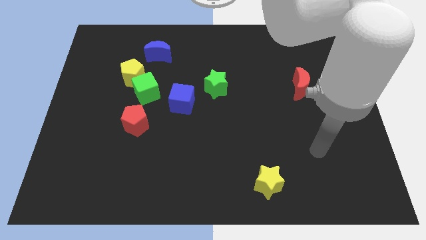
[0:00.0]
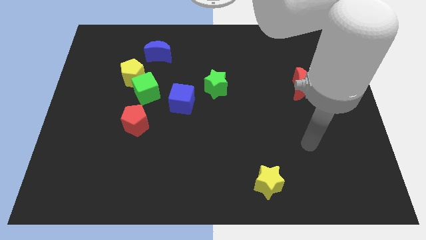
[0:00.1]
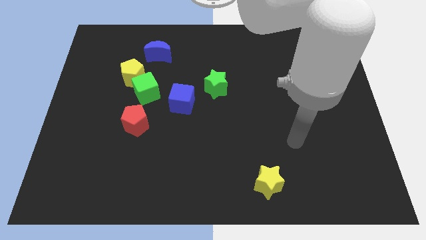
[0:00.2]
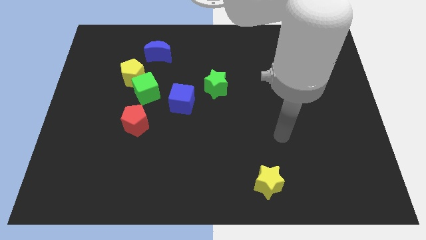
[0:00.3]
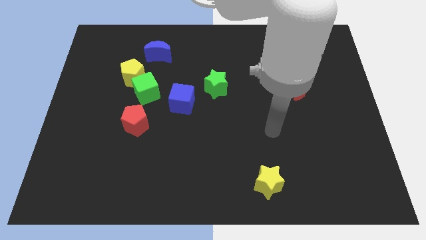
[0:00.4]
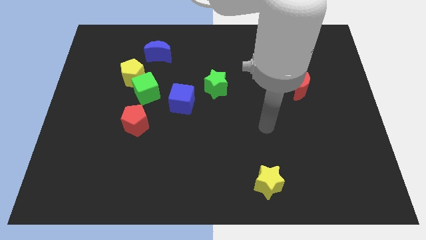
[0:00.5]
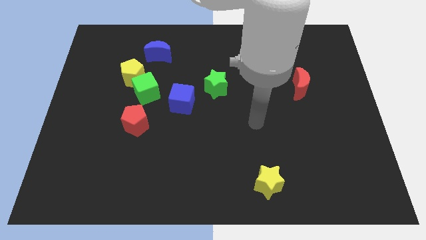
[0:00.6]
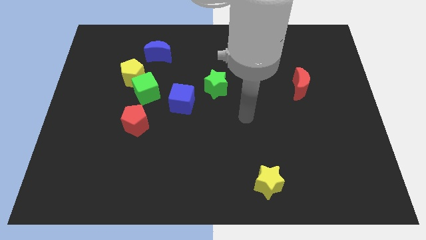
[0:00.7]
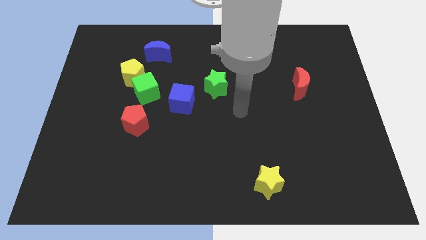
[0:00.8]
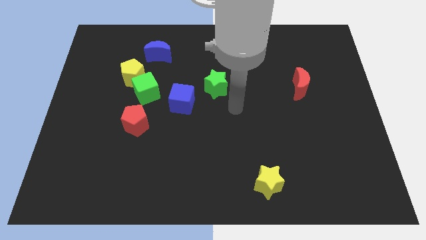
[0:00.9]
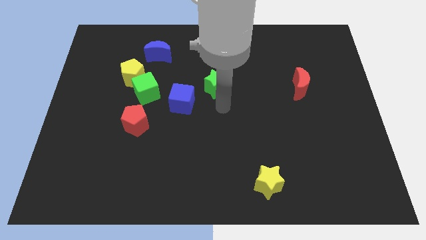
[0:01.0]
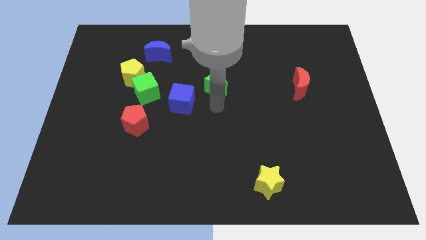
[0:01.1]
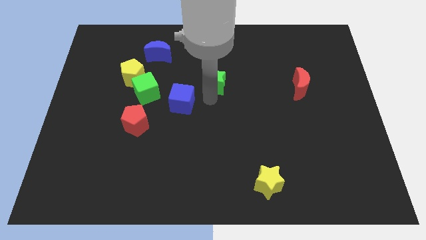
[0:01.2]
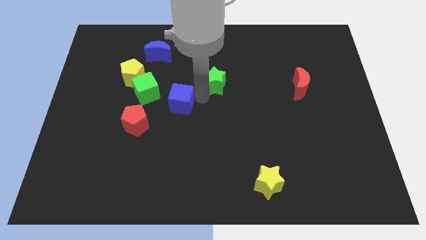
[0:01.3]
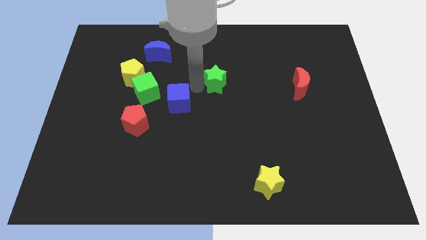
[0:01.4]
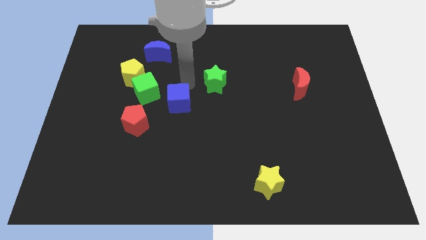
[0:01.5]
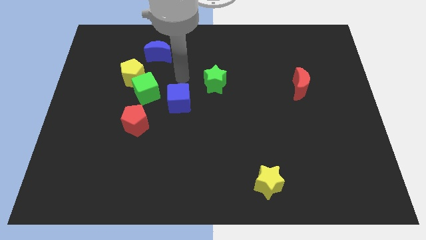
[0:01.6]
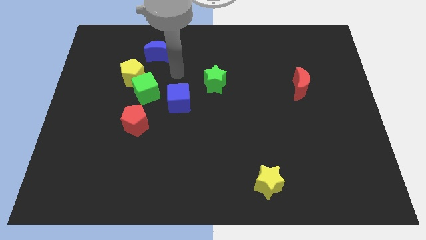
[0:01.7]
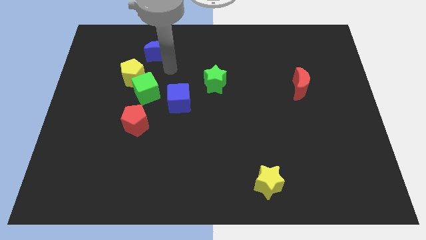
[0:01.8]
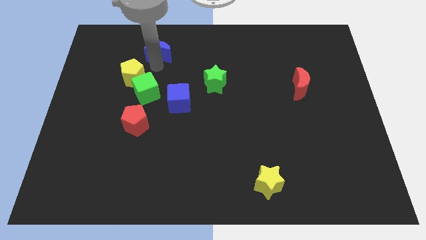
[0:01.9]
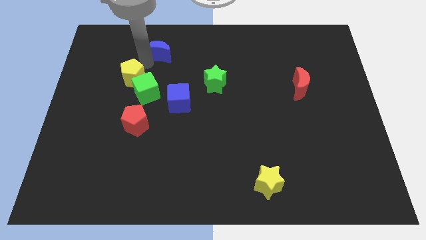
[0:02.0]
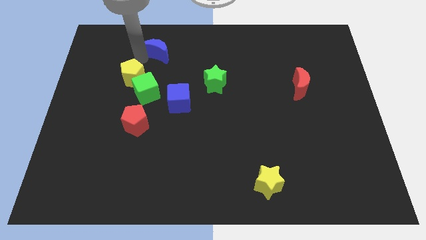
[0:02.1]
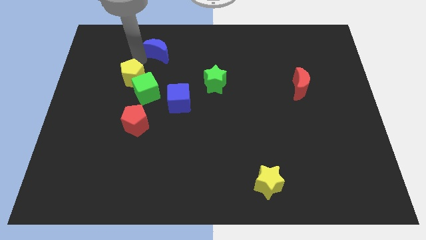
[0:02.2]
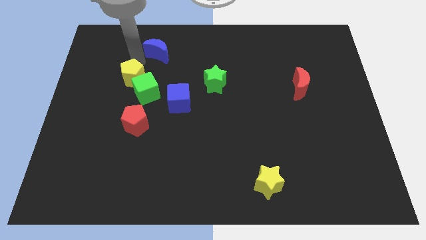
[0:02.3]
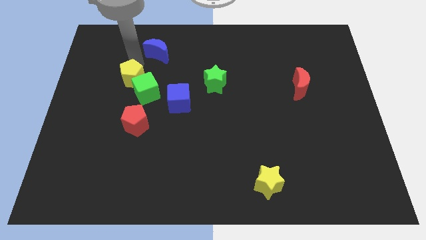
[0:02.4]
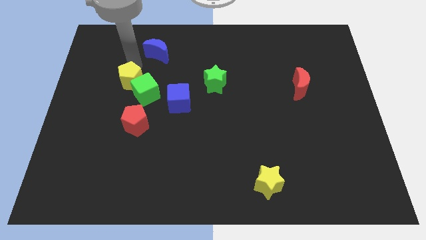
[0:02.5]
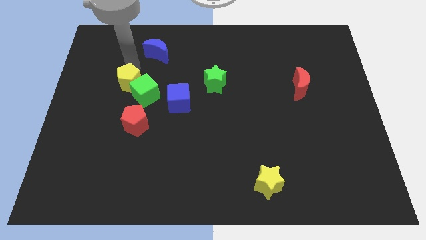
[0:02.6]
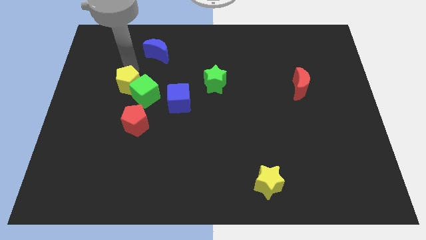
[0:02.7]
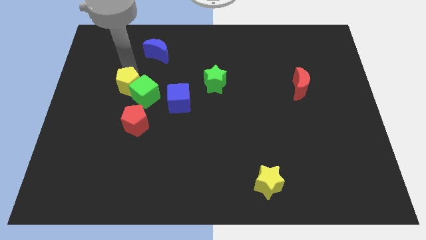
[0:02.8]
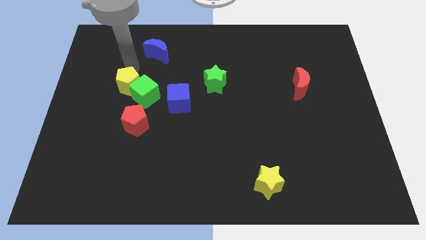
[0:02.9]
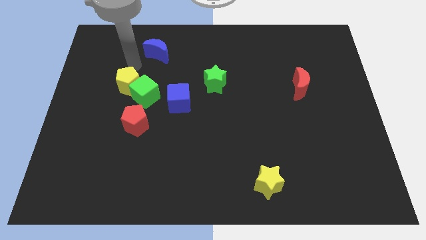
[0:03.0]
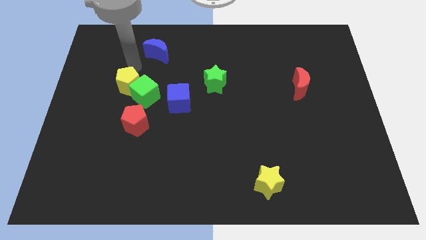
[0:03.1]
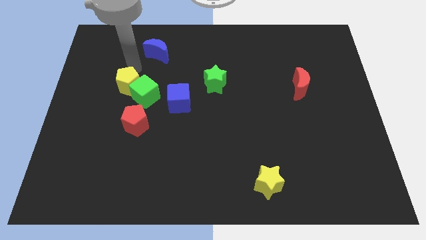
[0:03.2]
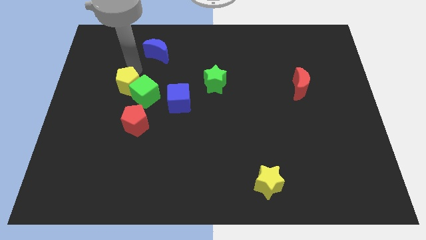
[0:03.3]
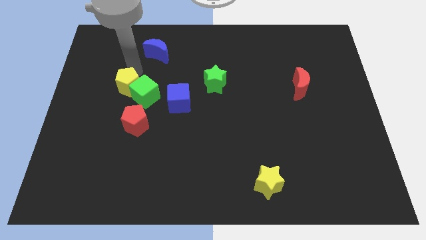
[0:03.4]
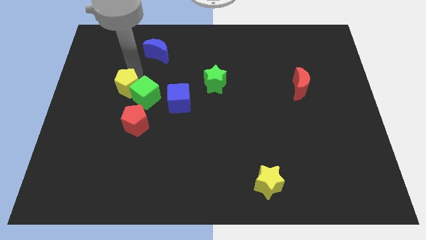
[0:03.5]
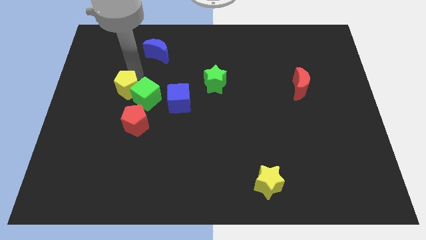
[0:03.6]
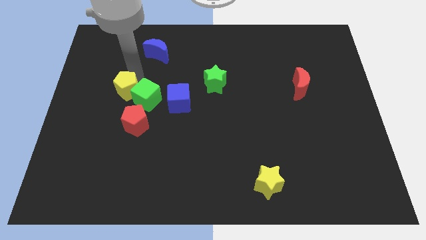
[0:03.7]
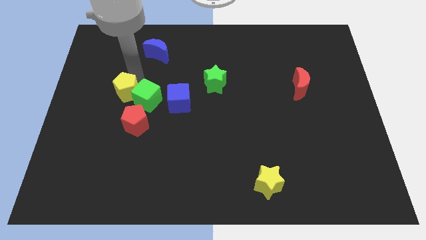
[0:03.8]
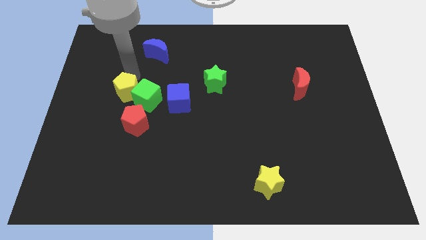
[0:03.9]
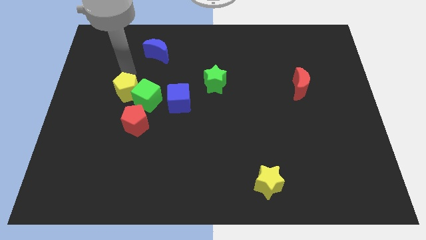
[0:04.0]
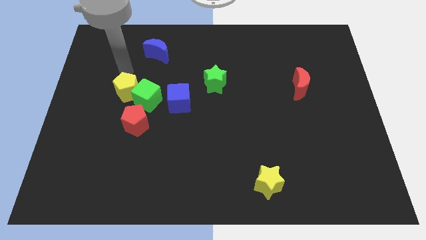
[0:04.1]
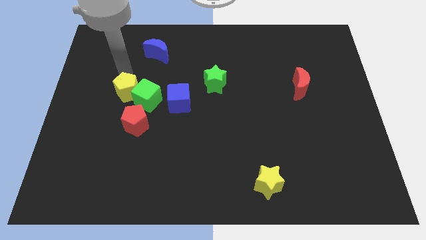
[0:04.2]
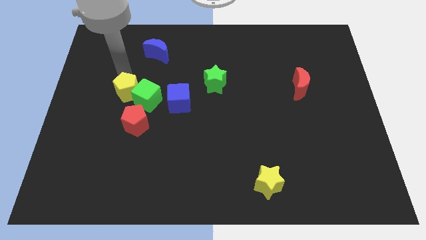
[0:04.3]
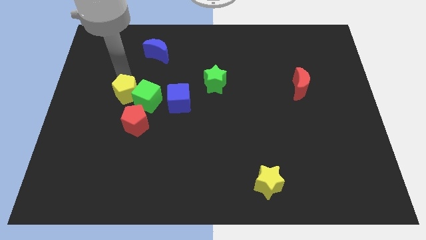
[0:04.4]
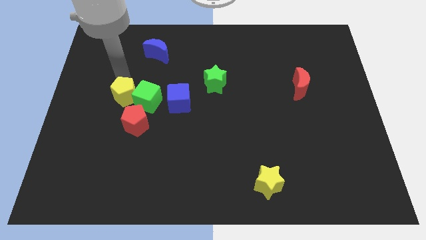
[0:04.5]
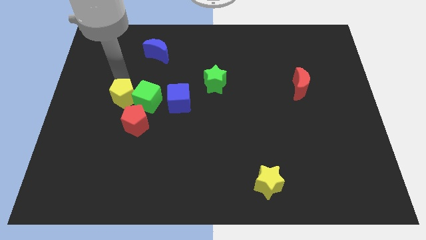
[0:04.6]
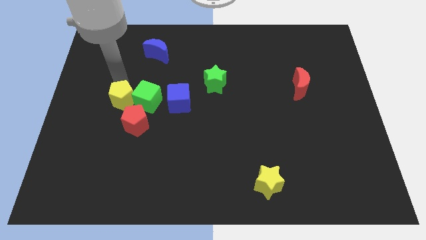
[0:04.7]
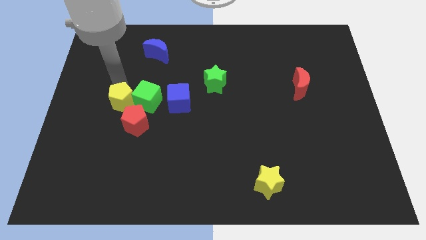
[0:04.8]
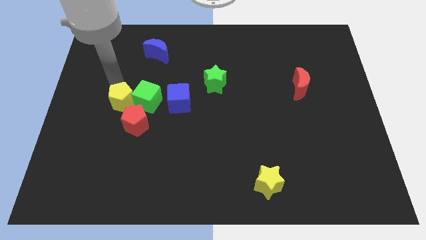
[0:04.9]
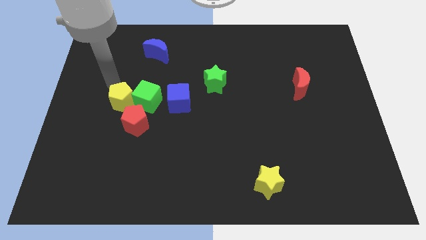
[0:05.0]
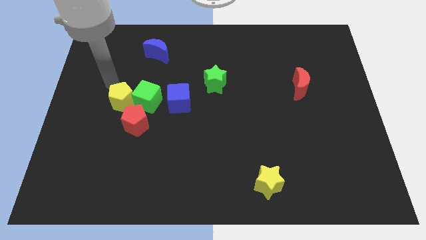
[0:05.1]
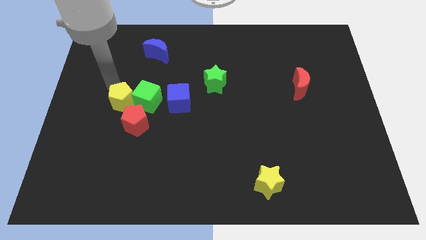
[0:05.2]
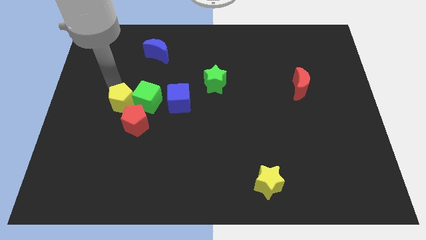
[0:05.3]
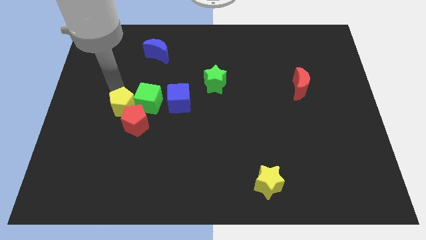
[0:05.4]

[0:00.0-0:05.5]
push the yellow pentagon close to the red pentagon

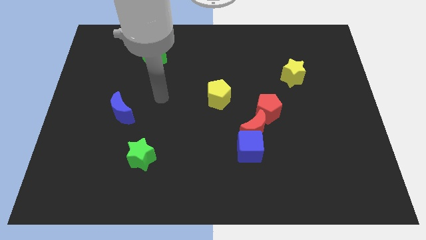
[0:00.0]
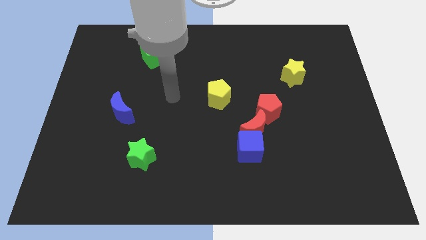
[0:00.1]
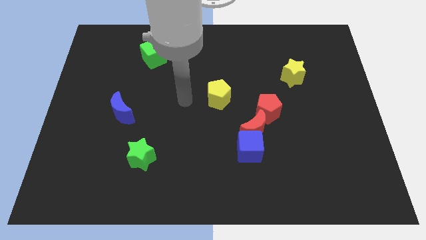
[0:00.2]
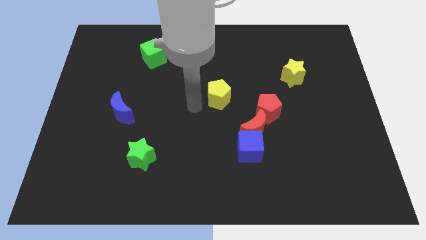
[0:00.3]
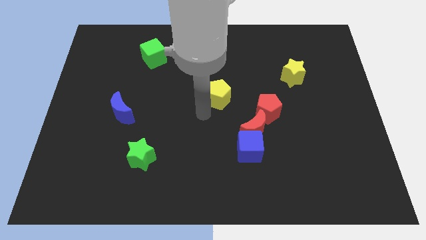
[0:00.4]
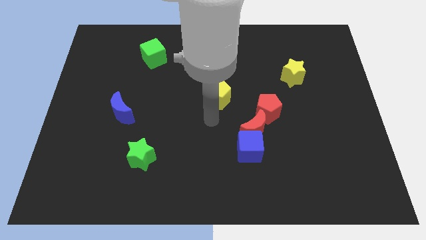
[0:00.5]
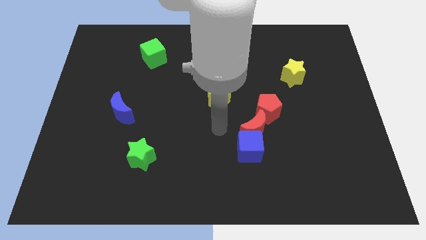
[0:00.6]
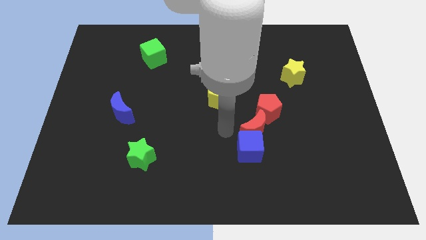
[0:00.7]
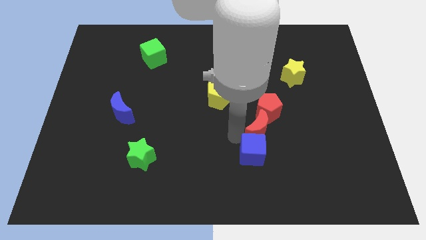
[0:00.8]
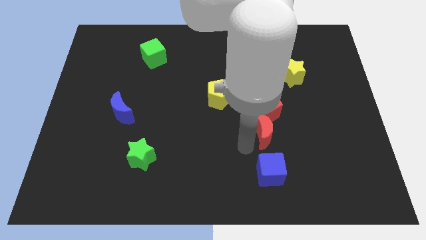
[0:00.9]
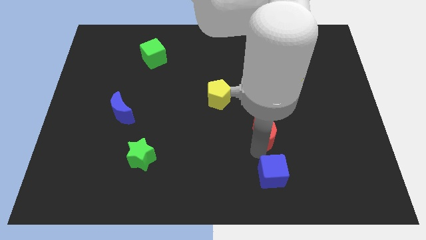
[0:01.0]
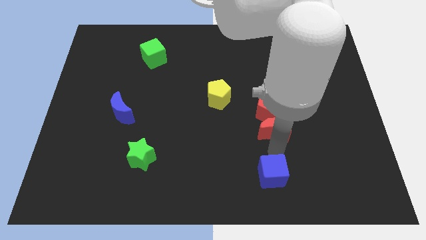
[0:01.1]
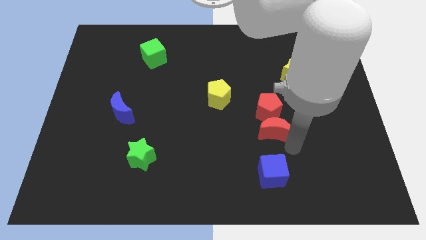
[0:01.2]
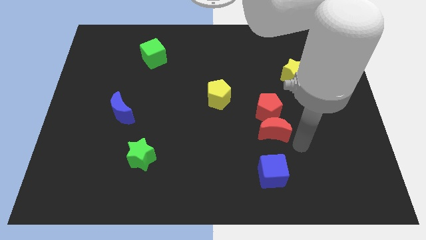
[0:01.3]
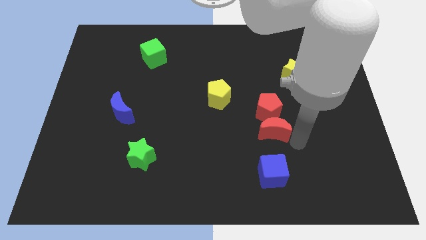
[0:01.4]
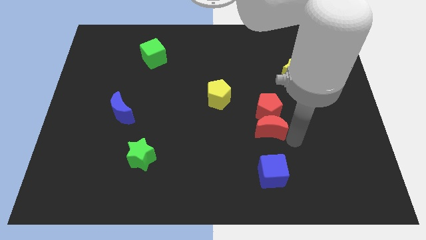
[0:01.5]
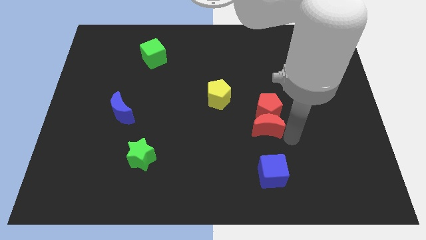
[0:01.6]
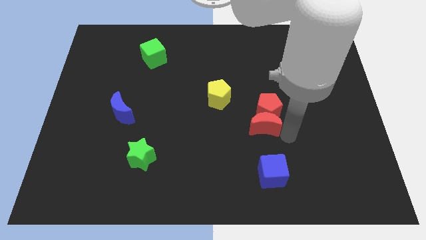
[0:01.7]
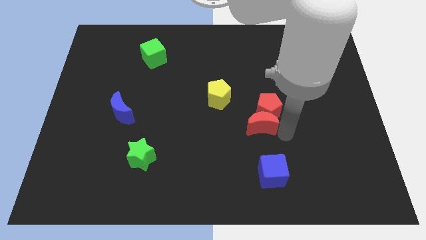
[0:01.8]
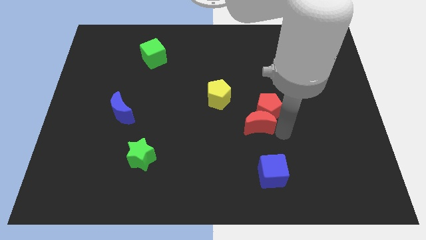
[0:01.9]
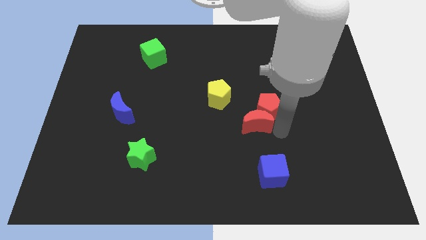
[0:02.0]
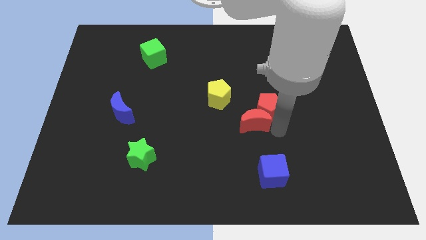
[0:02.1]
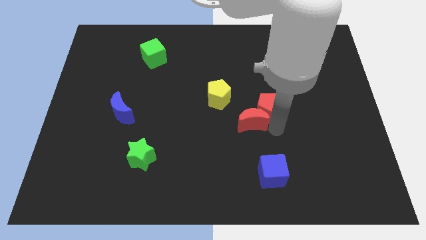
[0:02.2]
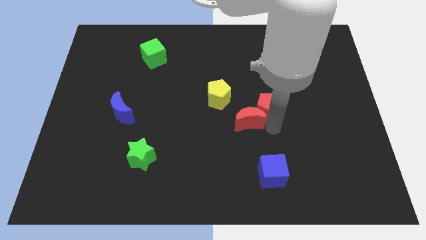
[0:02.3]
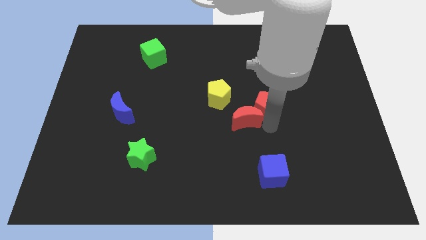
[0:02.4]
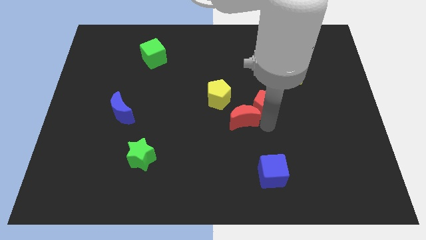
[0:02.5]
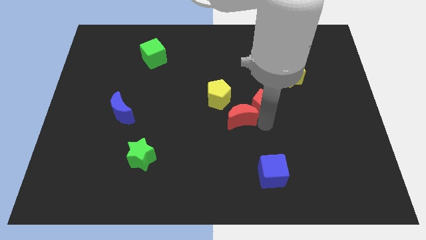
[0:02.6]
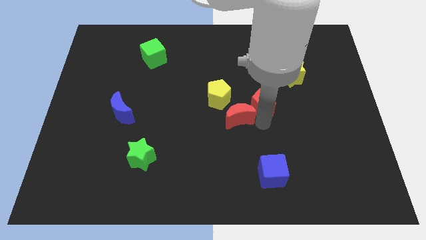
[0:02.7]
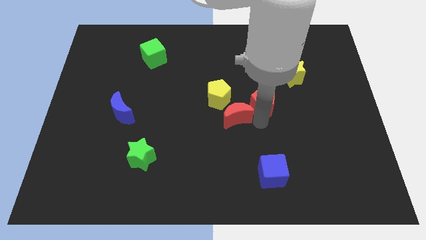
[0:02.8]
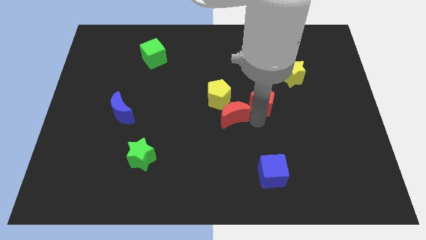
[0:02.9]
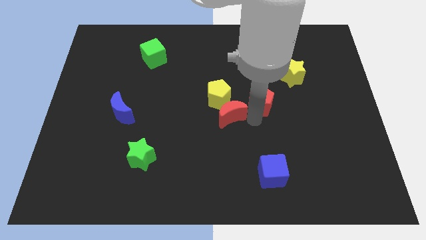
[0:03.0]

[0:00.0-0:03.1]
put the red moon close to the yellow pentagon
